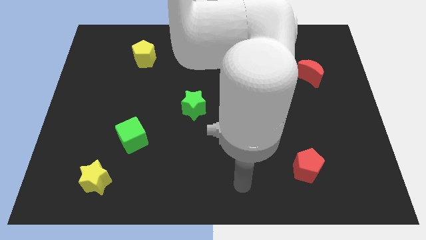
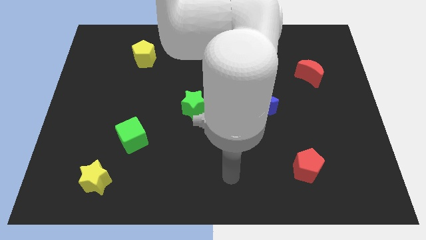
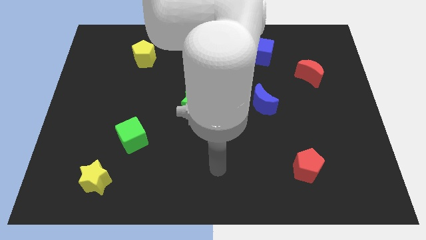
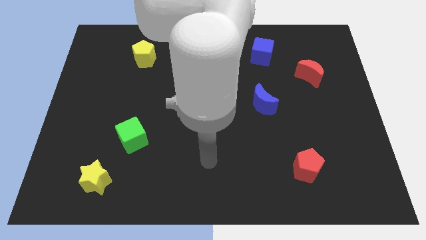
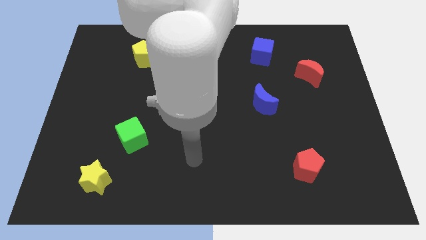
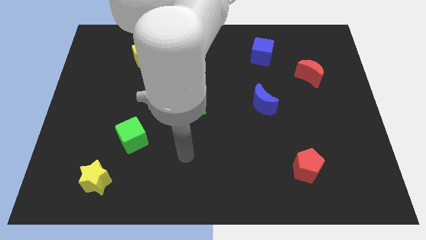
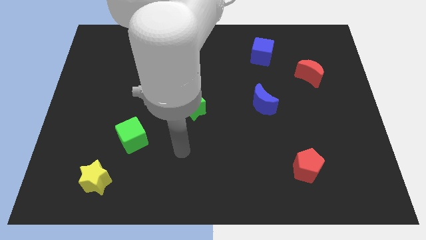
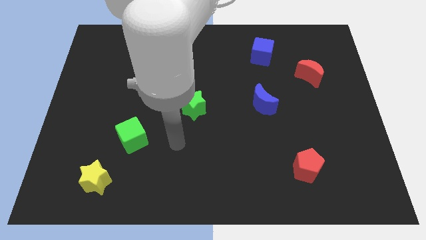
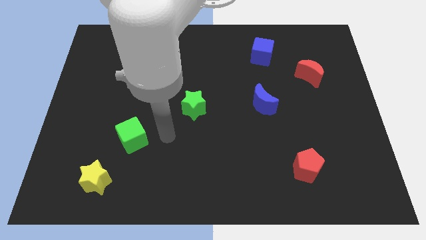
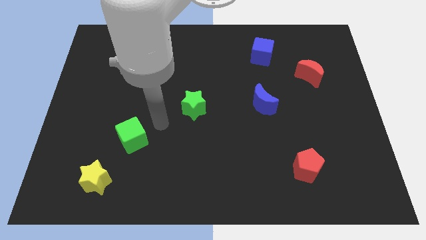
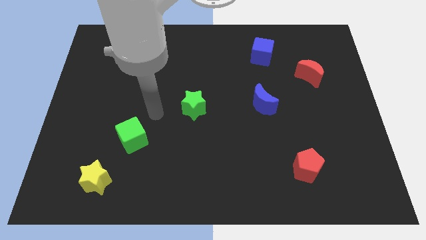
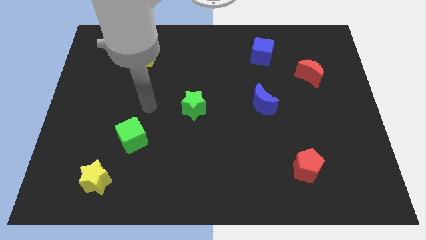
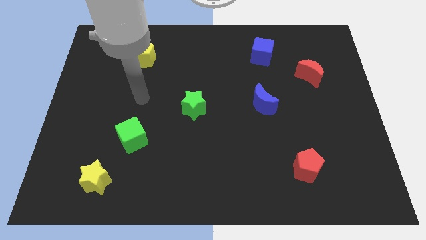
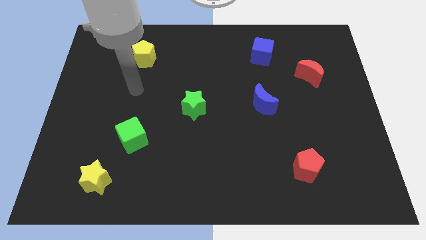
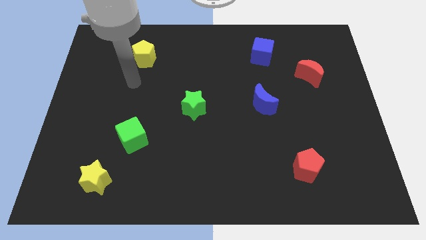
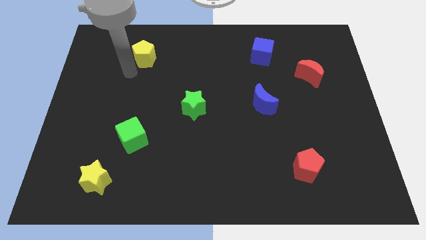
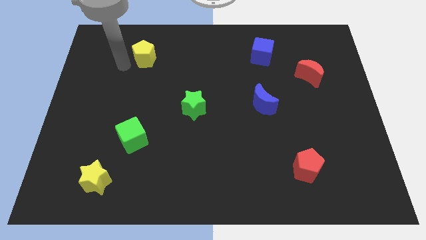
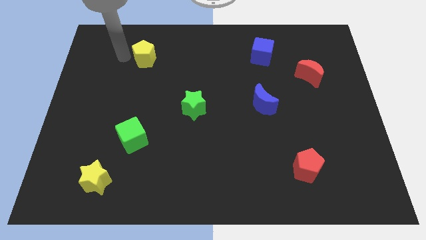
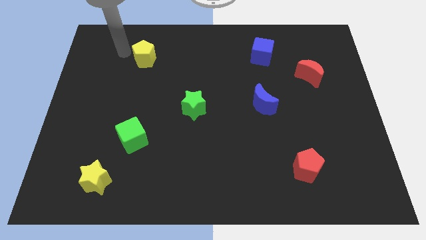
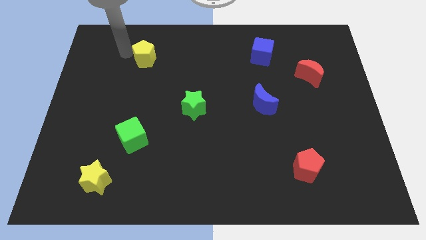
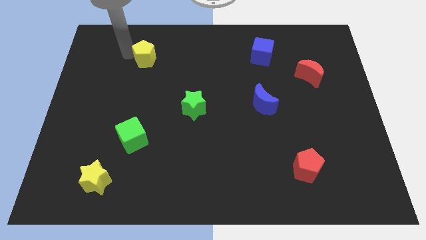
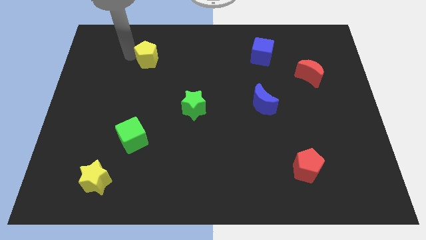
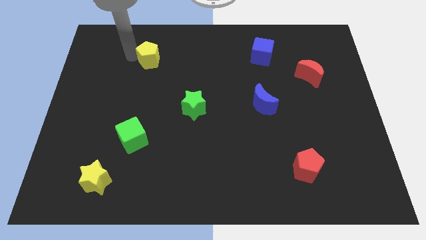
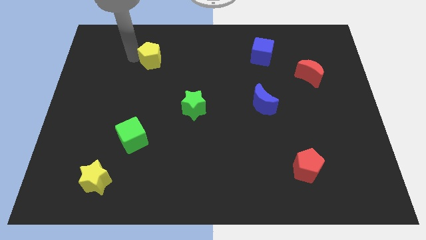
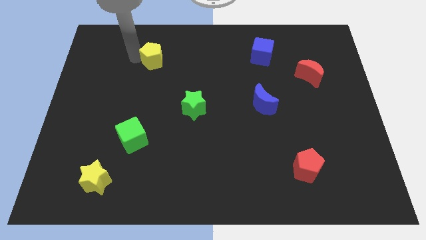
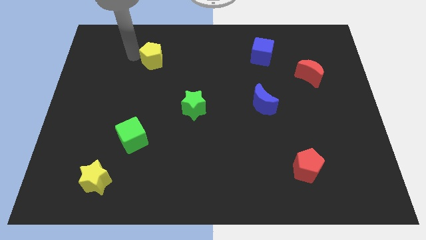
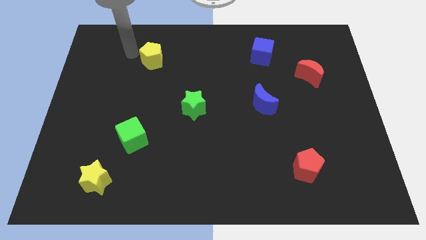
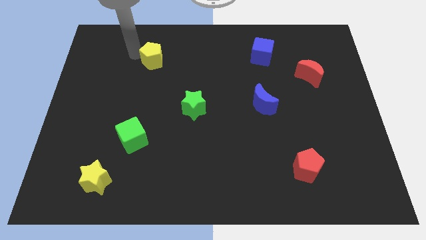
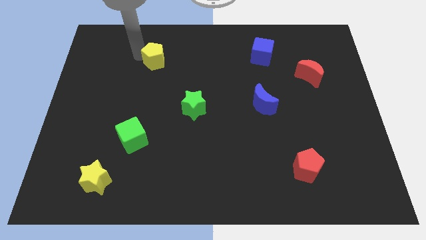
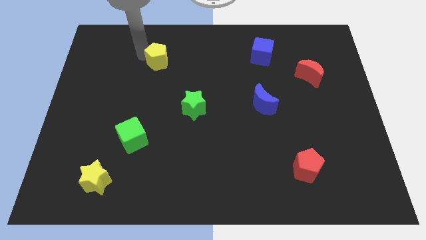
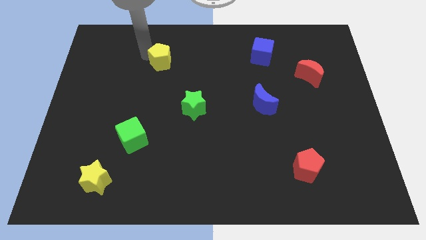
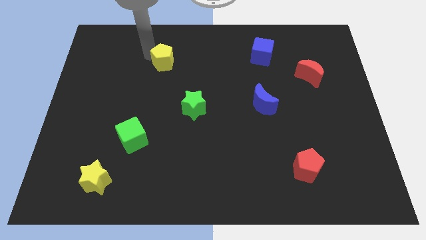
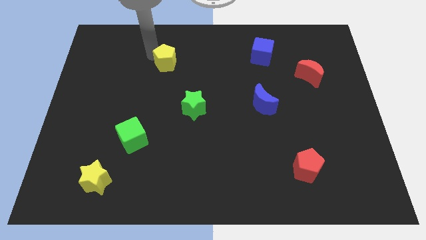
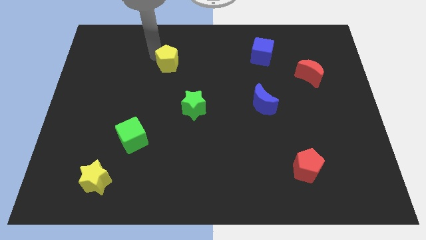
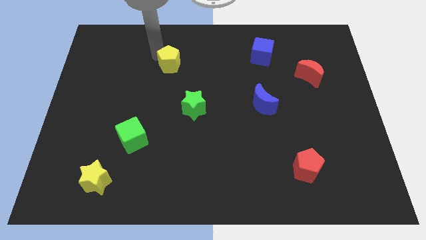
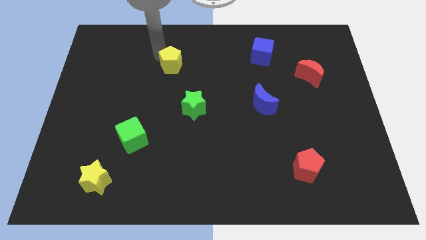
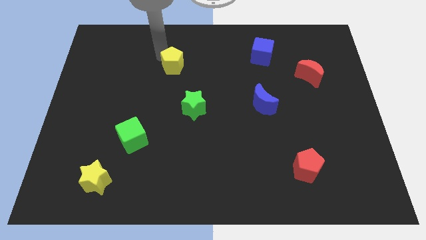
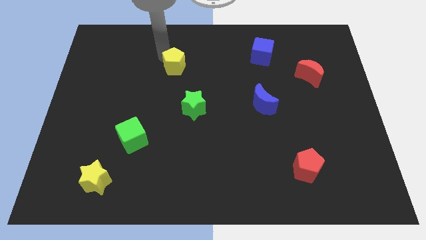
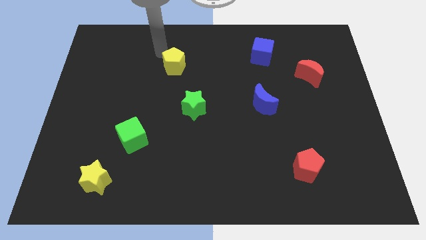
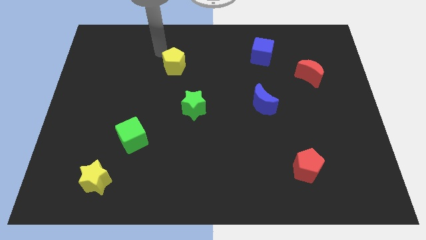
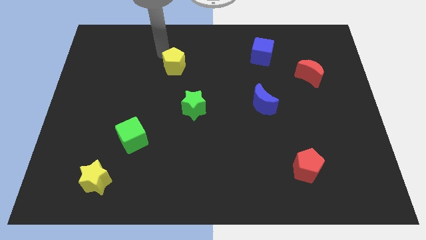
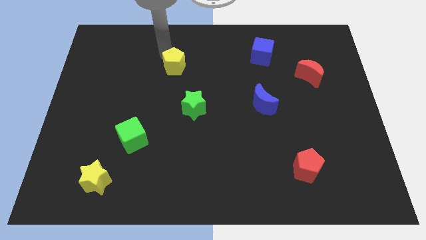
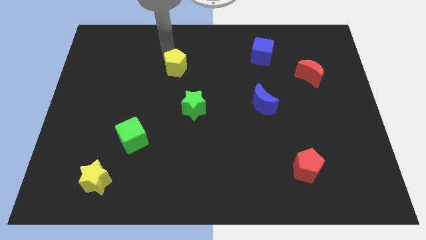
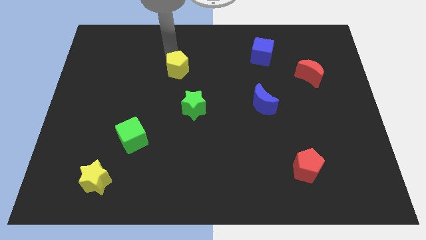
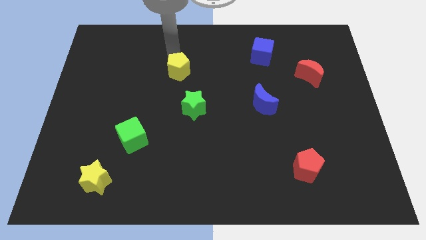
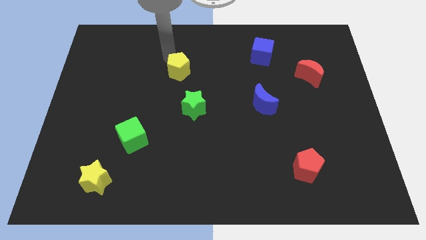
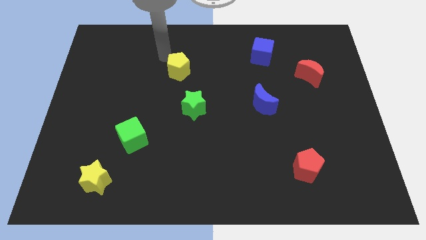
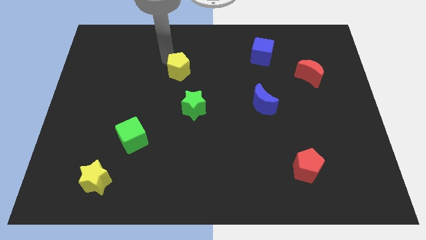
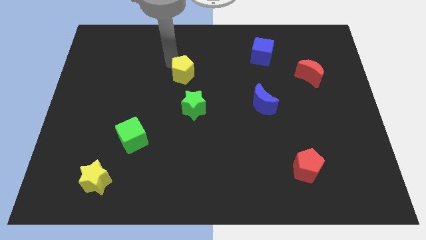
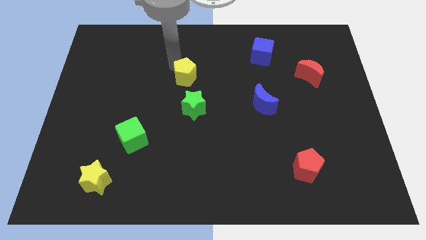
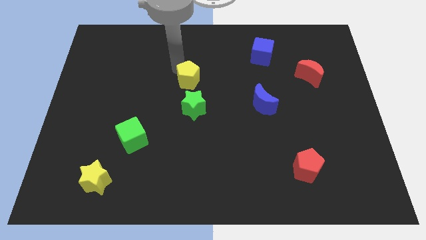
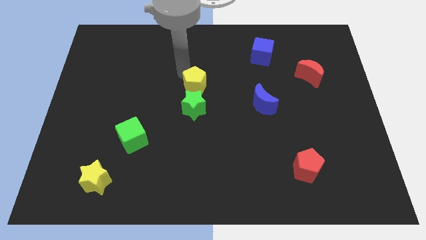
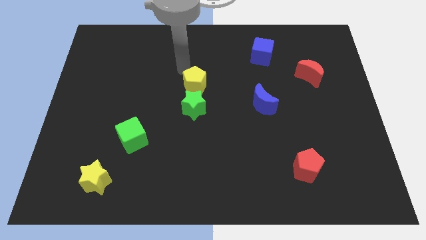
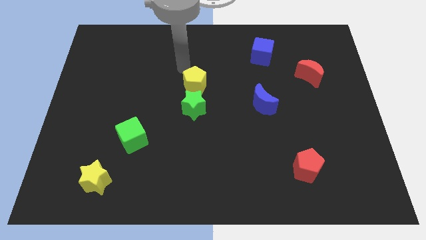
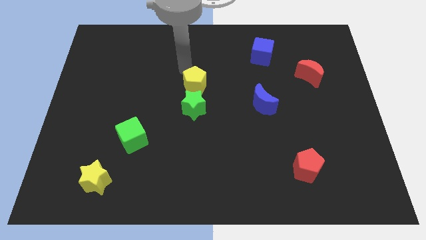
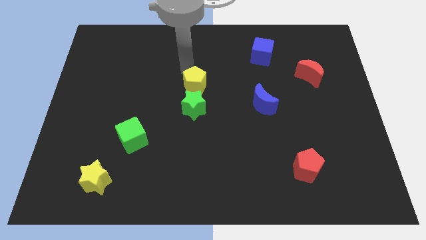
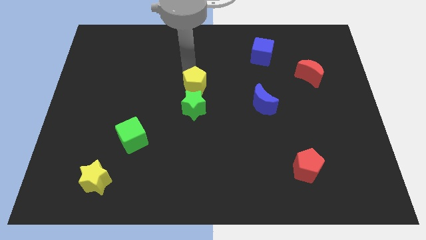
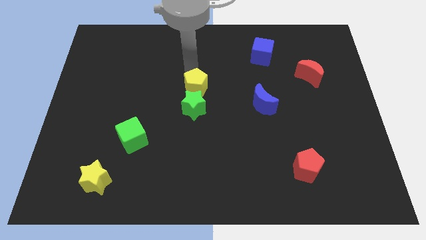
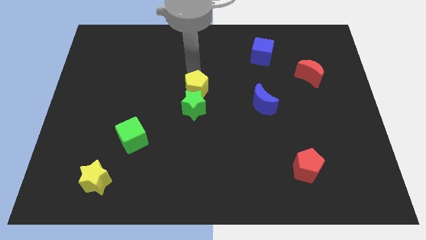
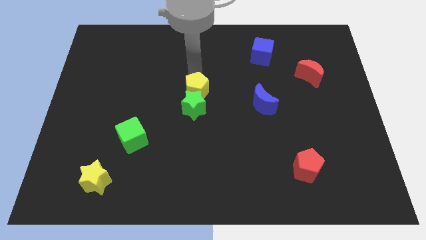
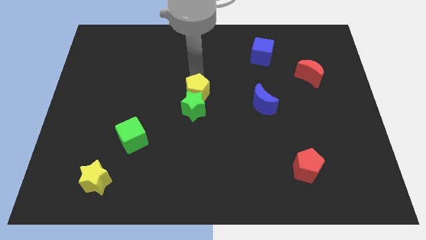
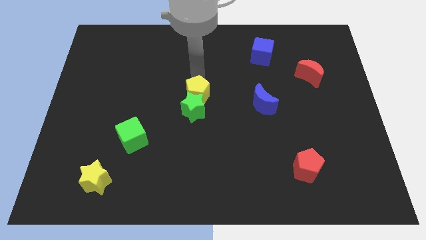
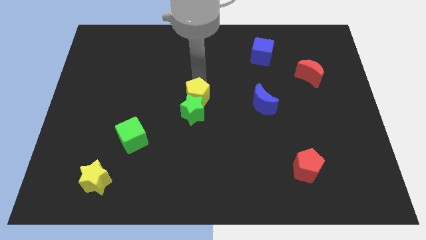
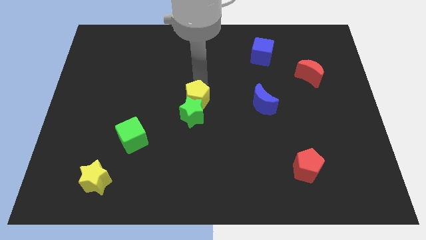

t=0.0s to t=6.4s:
push the yellow pentagon downwards and to the right diagonally

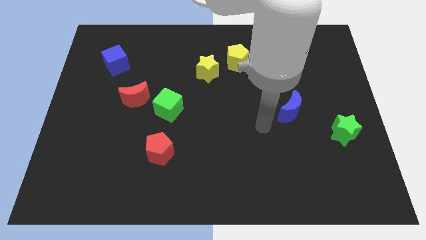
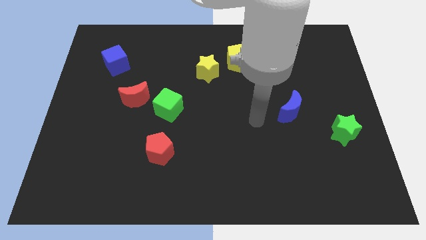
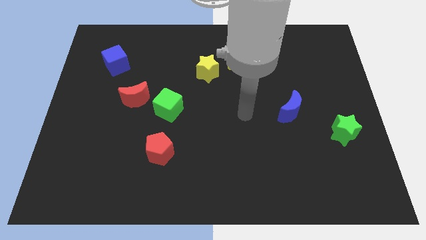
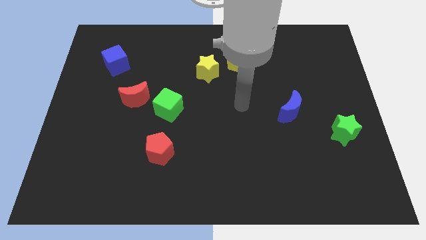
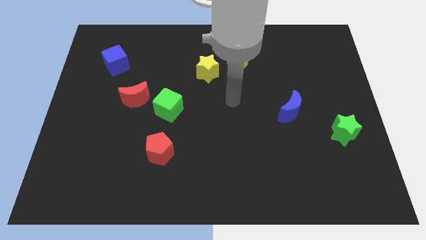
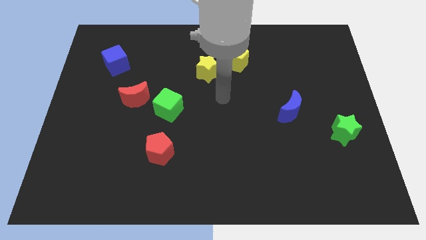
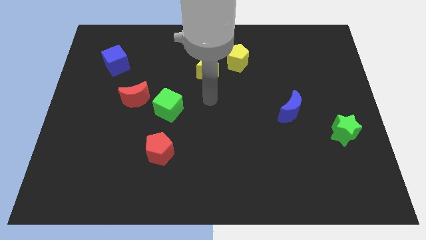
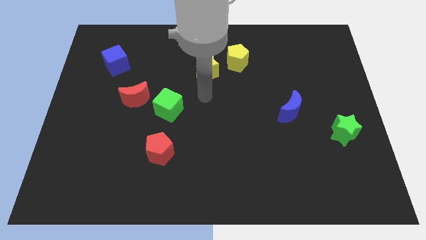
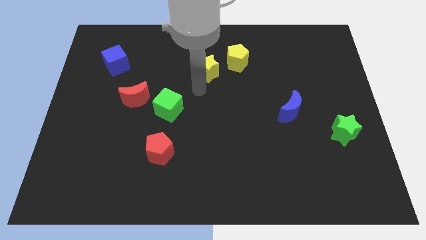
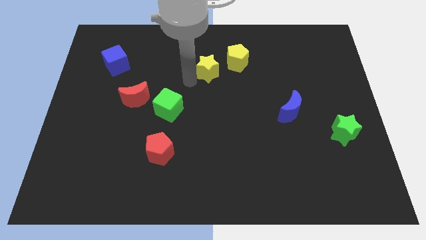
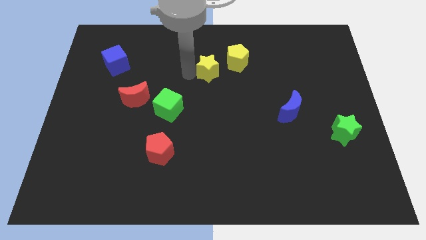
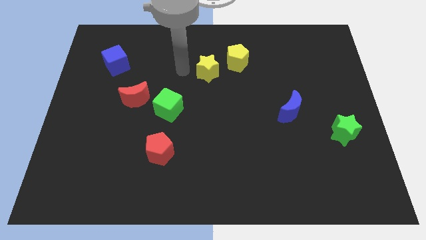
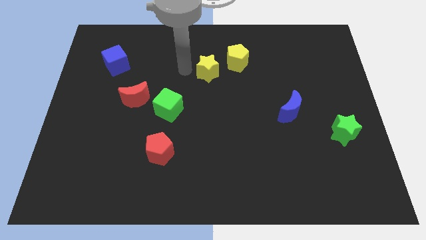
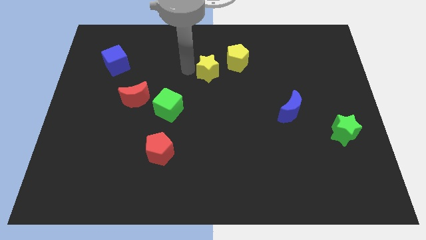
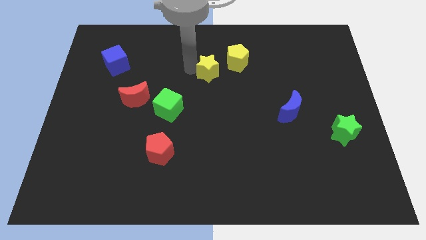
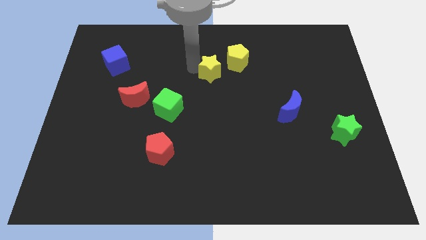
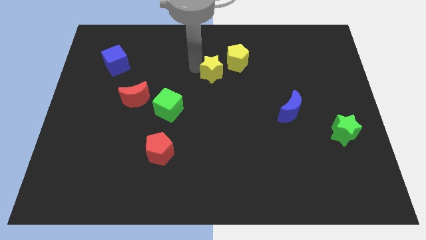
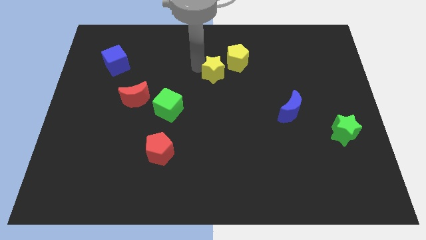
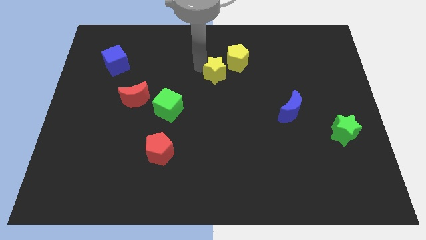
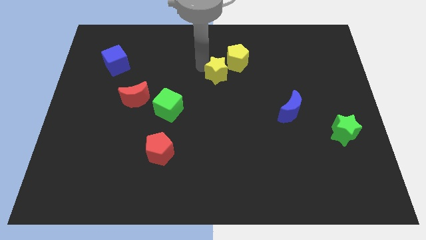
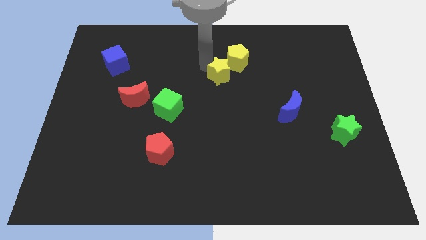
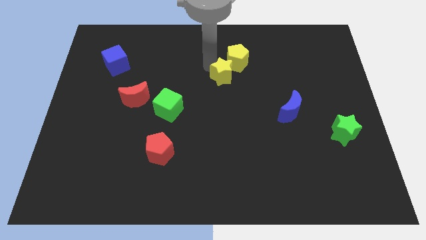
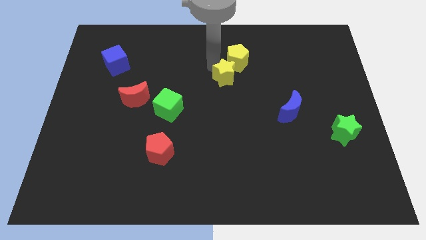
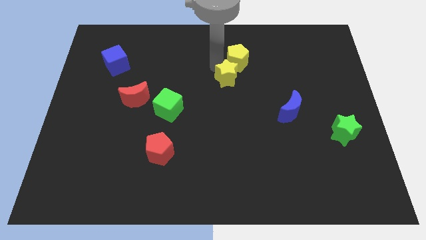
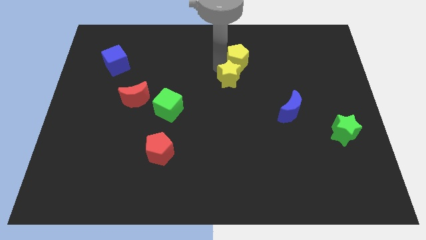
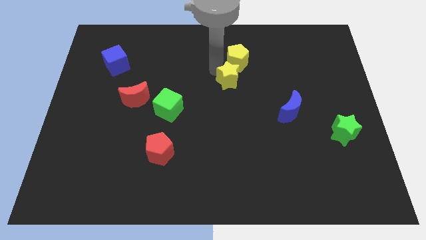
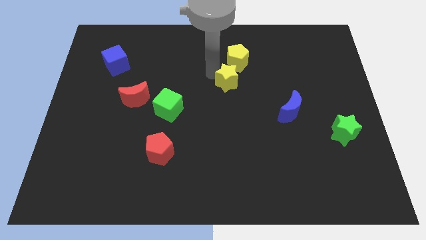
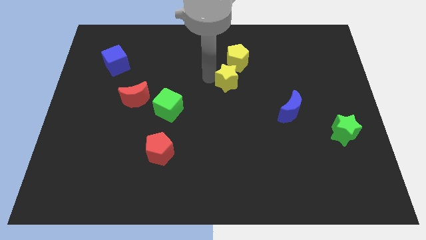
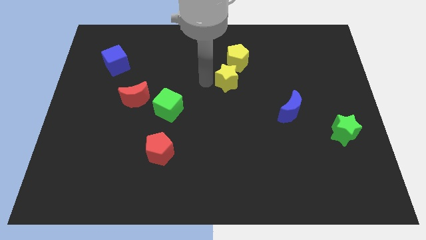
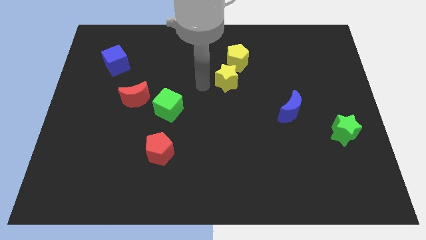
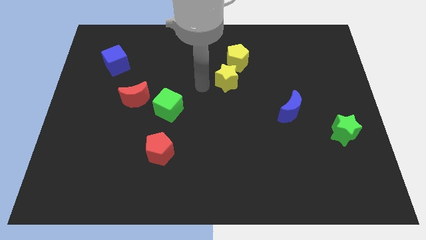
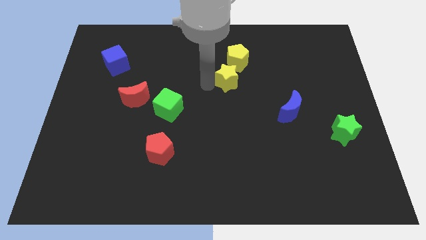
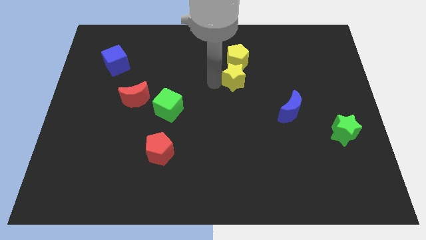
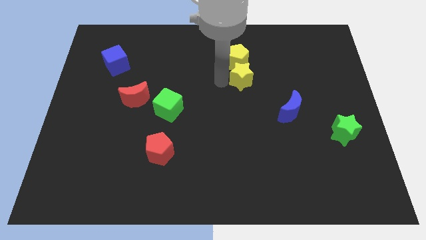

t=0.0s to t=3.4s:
move the yellow star a bit right
